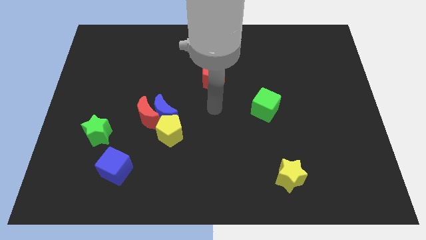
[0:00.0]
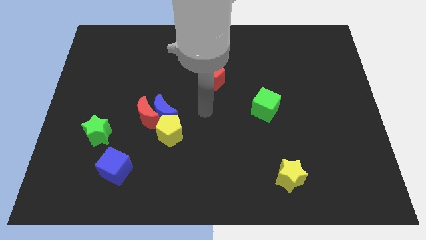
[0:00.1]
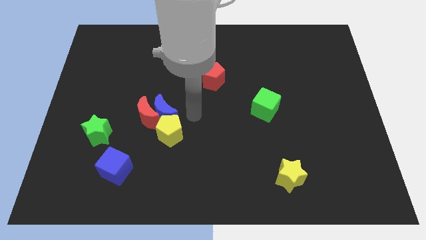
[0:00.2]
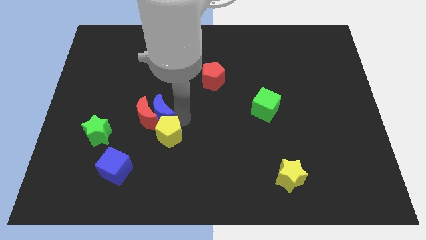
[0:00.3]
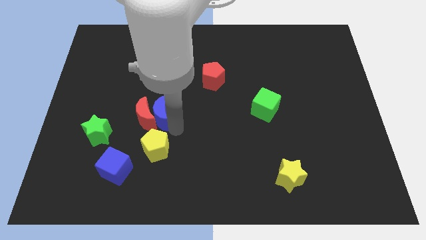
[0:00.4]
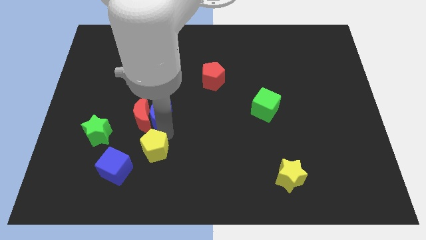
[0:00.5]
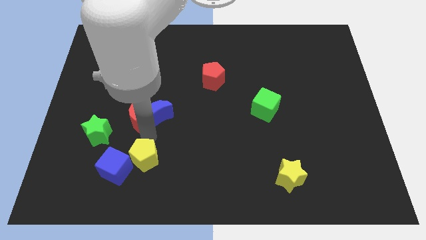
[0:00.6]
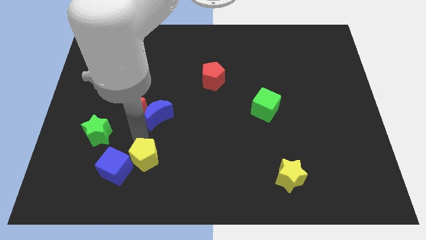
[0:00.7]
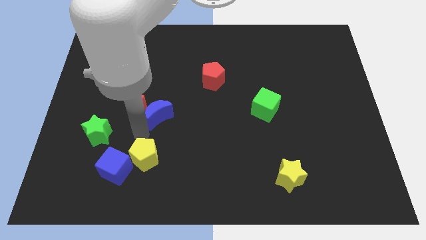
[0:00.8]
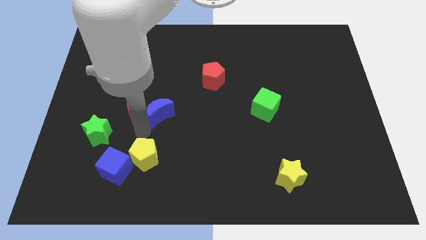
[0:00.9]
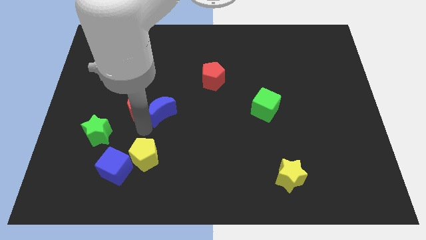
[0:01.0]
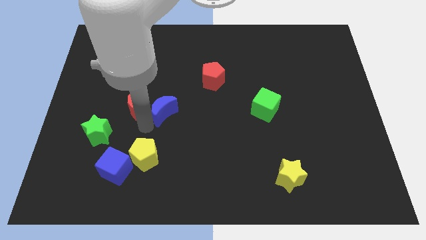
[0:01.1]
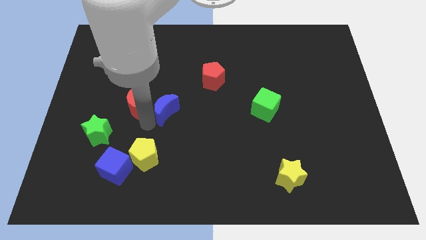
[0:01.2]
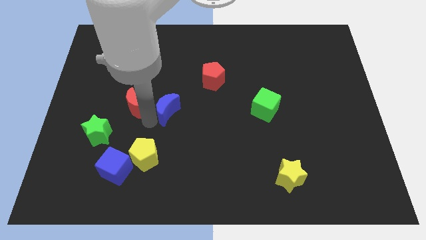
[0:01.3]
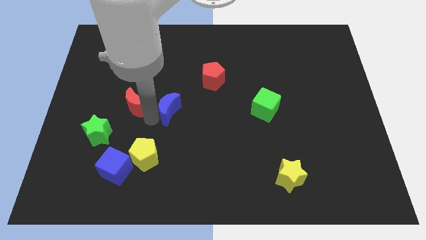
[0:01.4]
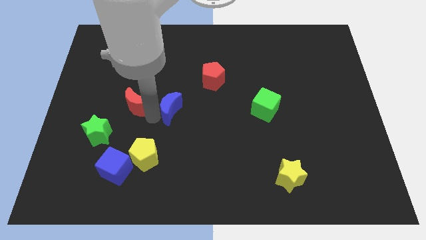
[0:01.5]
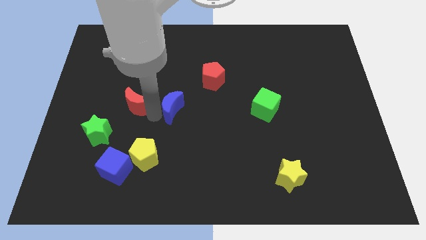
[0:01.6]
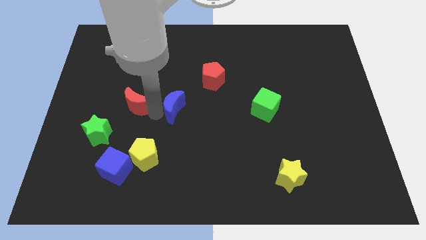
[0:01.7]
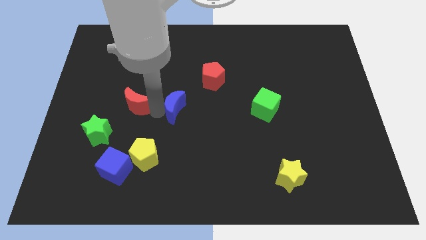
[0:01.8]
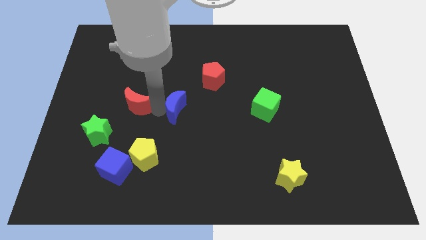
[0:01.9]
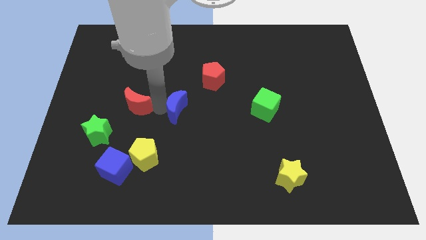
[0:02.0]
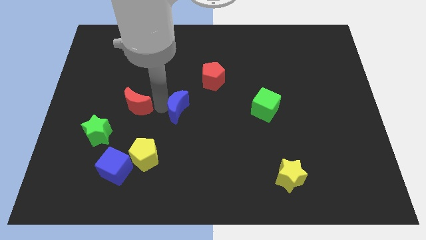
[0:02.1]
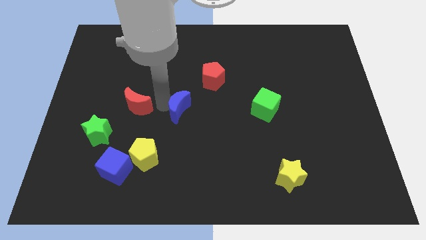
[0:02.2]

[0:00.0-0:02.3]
separate the blue moon from the red moon and yellow pentagon

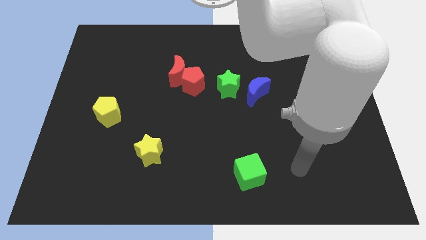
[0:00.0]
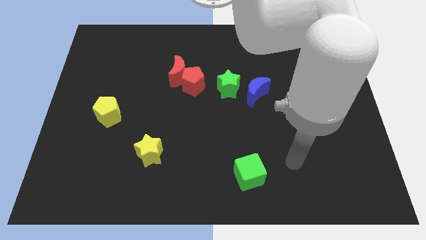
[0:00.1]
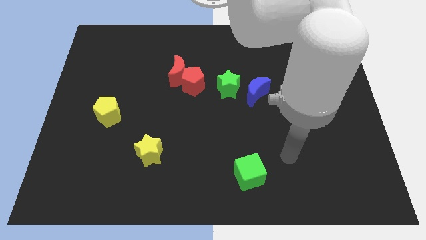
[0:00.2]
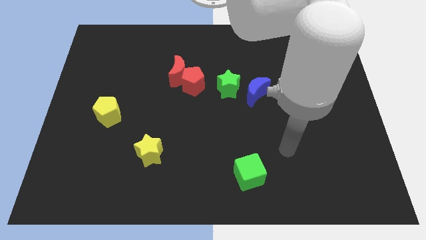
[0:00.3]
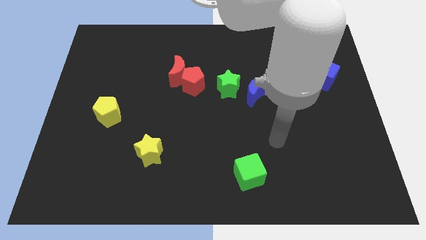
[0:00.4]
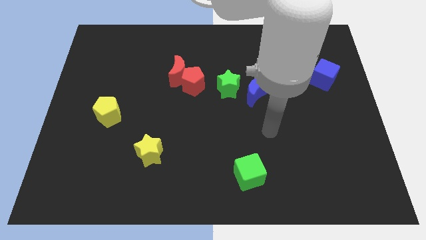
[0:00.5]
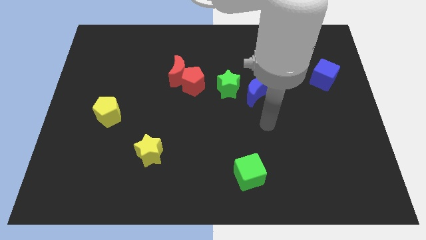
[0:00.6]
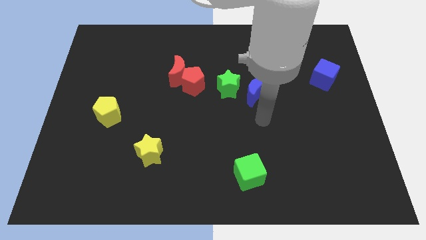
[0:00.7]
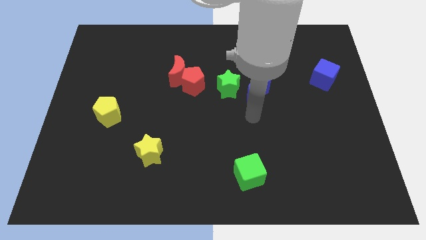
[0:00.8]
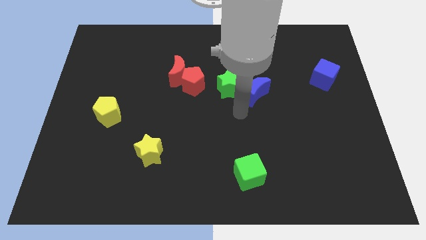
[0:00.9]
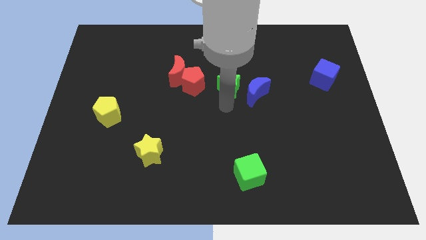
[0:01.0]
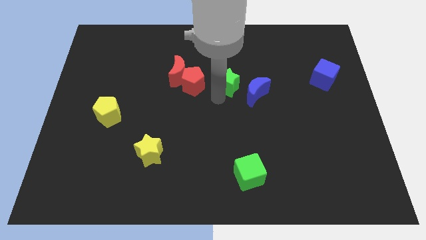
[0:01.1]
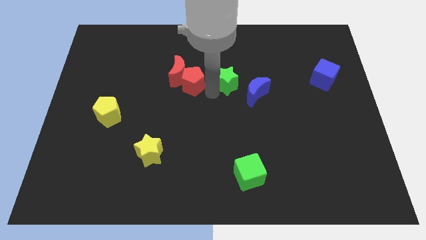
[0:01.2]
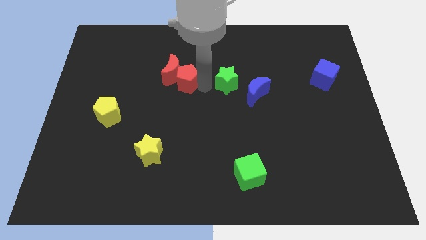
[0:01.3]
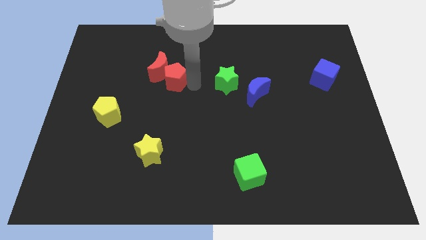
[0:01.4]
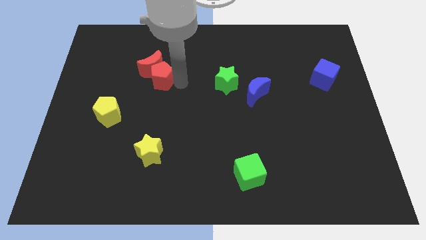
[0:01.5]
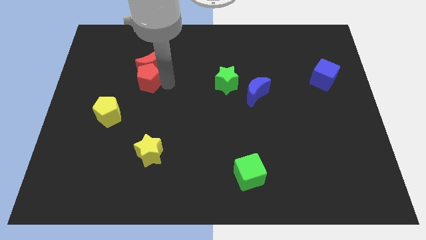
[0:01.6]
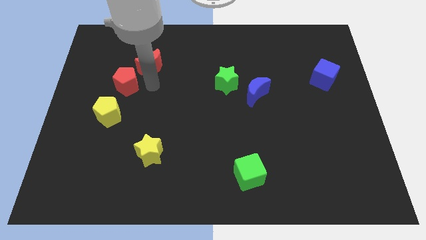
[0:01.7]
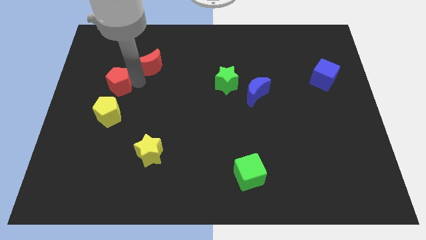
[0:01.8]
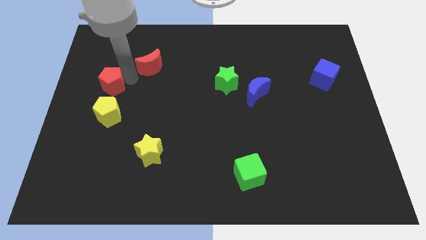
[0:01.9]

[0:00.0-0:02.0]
pull the red moon apart from the red pentagon

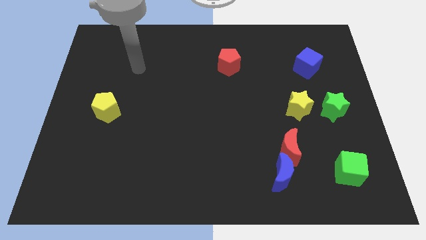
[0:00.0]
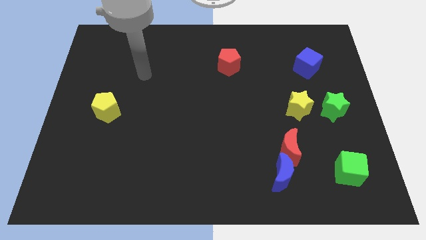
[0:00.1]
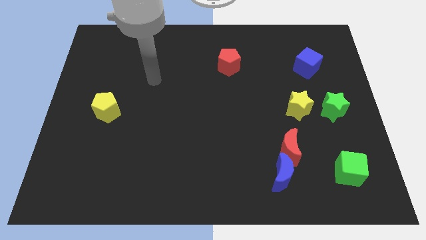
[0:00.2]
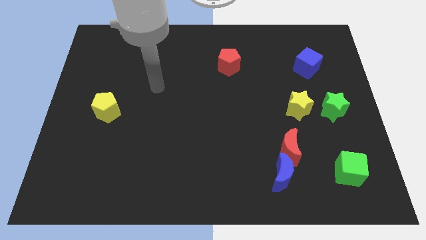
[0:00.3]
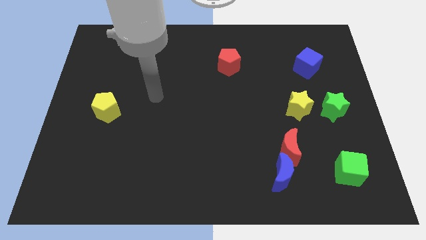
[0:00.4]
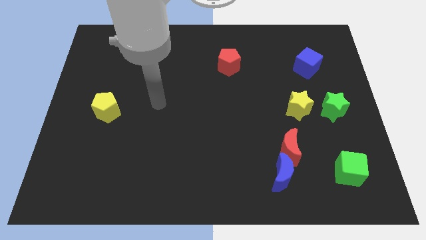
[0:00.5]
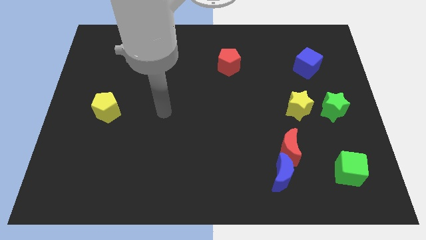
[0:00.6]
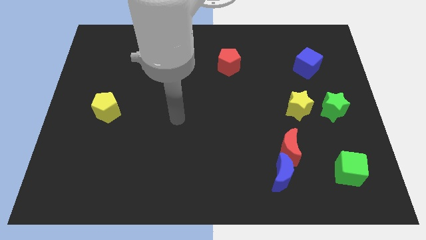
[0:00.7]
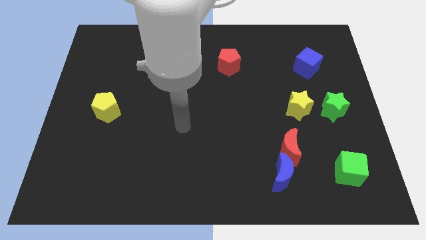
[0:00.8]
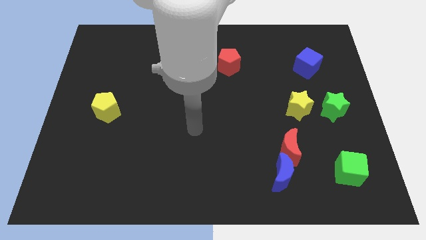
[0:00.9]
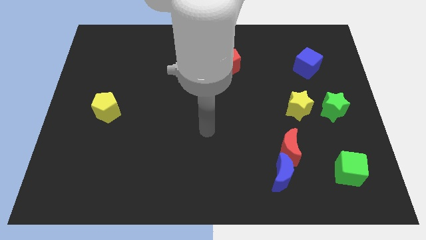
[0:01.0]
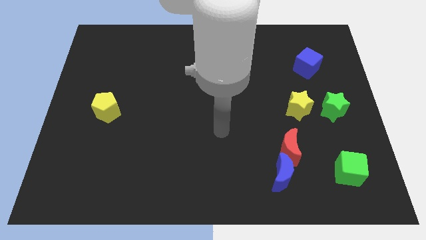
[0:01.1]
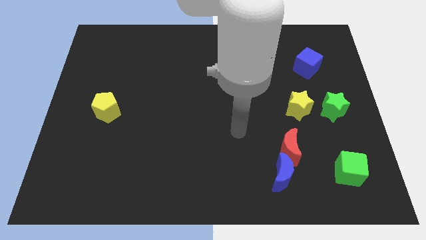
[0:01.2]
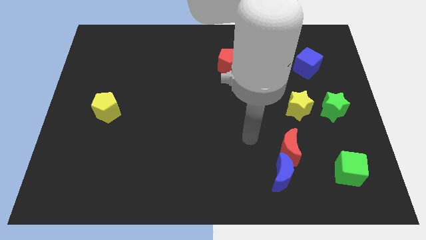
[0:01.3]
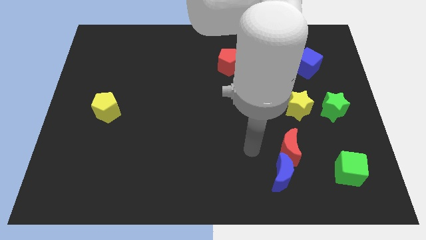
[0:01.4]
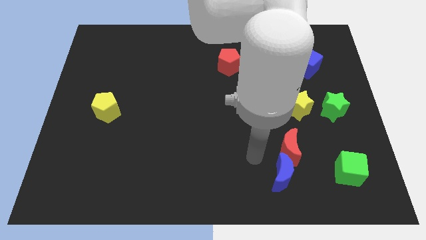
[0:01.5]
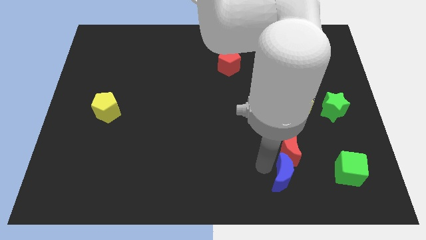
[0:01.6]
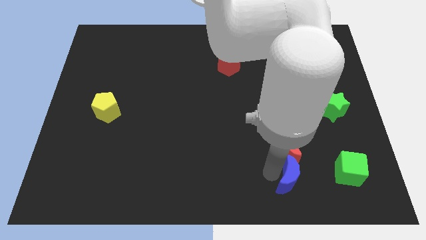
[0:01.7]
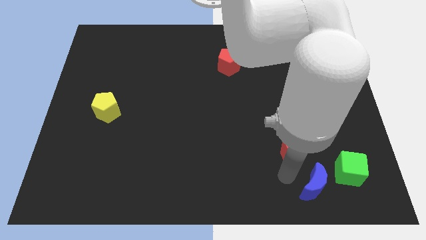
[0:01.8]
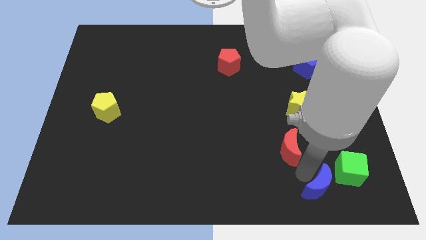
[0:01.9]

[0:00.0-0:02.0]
separate the red moon from the blue moon

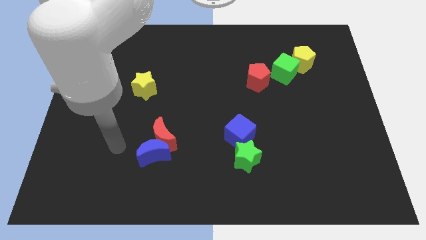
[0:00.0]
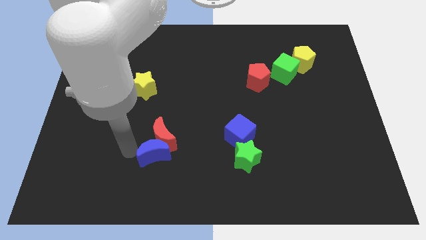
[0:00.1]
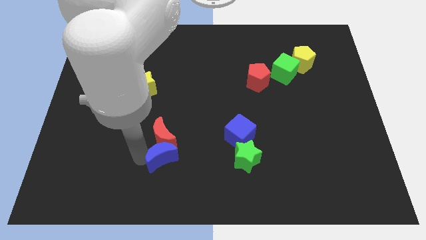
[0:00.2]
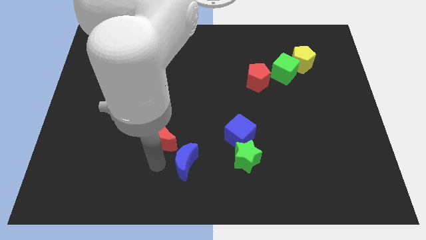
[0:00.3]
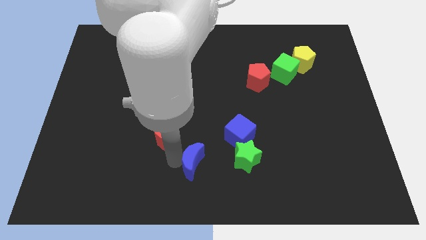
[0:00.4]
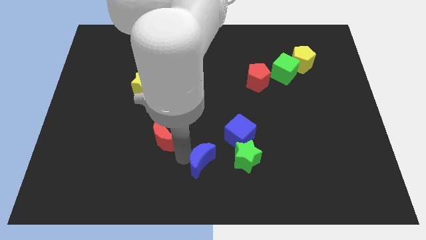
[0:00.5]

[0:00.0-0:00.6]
pull the red moon apart from the blue moon

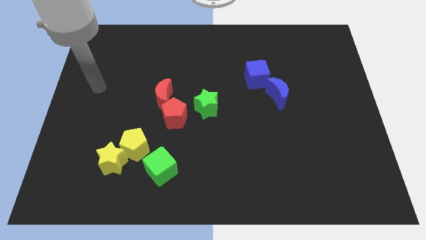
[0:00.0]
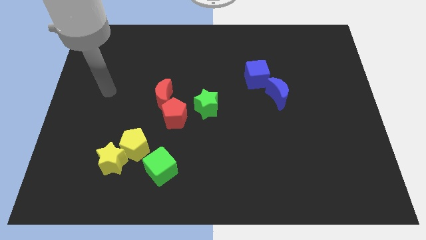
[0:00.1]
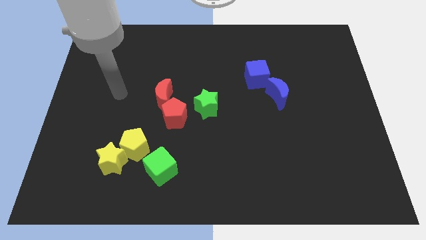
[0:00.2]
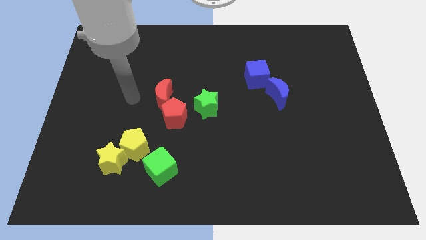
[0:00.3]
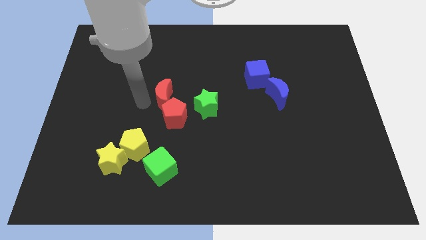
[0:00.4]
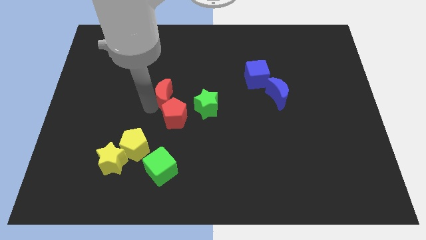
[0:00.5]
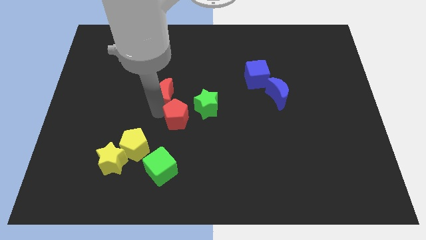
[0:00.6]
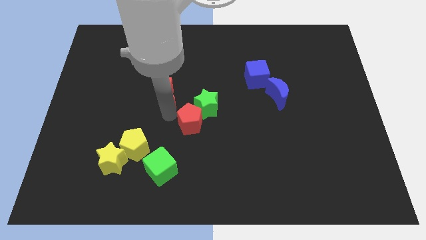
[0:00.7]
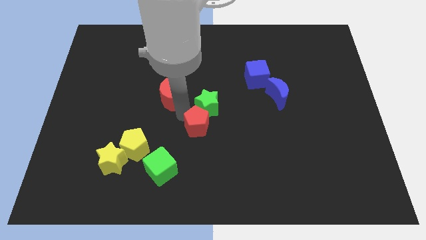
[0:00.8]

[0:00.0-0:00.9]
move the red moon away from the red pentagon

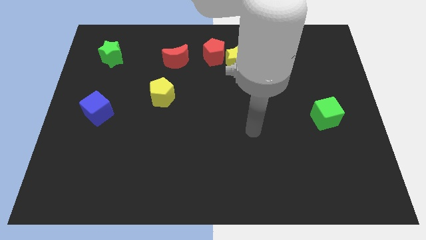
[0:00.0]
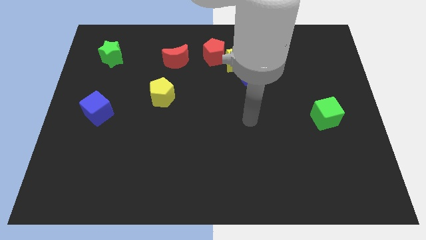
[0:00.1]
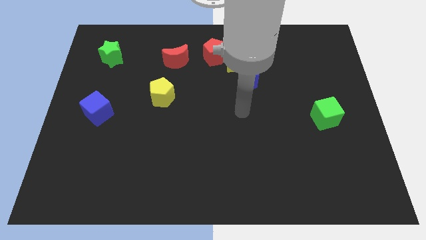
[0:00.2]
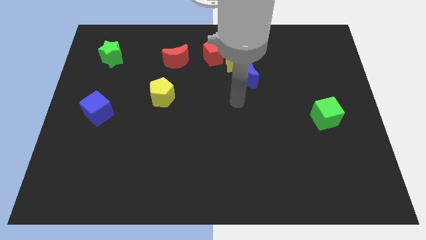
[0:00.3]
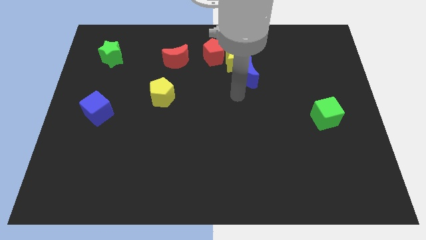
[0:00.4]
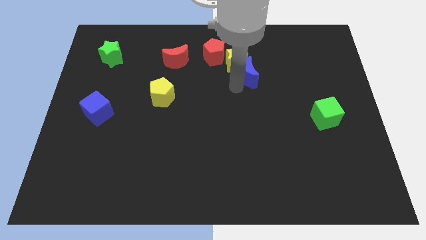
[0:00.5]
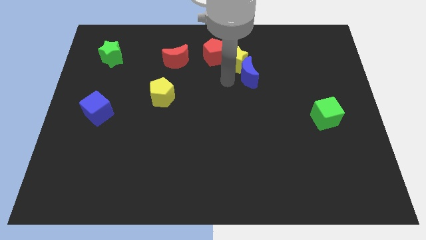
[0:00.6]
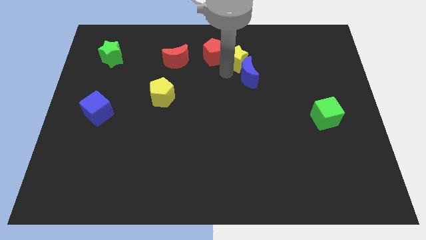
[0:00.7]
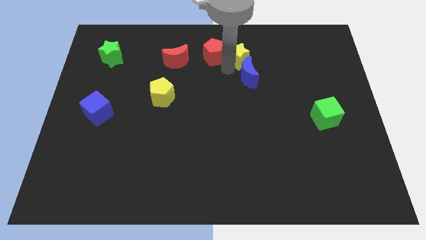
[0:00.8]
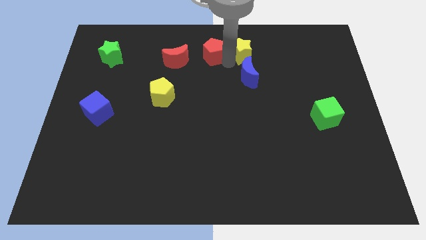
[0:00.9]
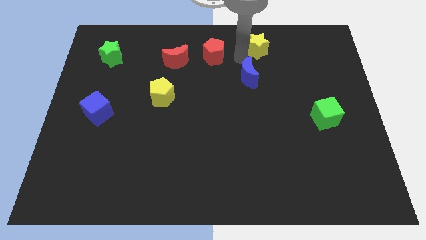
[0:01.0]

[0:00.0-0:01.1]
move the blue moon away from the yellow star

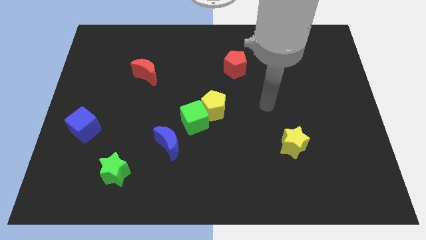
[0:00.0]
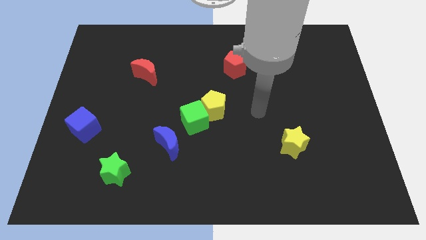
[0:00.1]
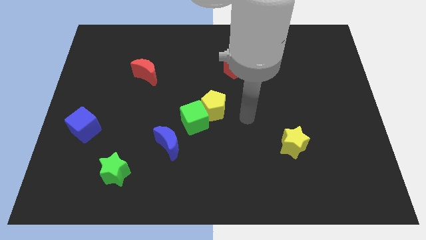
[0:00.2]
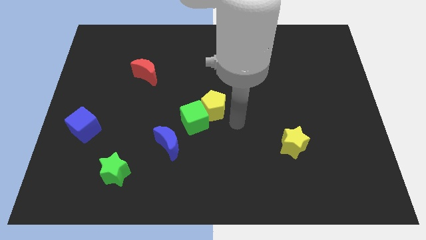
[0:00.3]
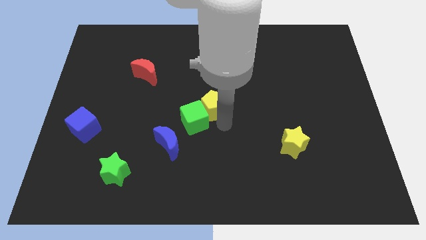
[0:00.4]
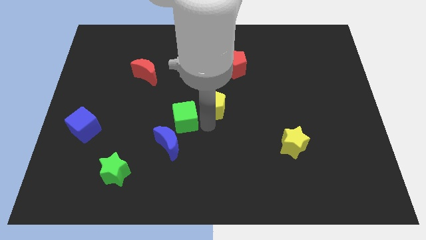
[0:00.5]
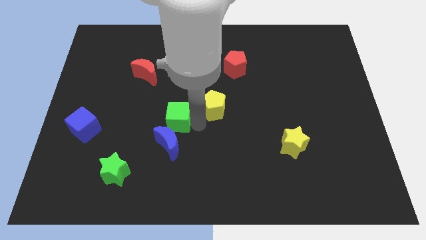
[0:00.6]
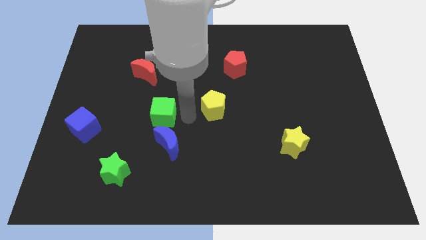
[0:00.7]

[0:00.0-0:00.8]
pull the yellow pentagon apart from the green cube
